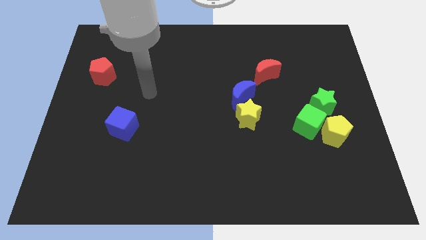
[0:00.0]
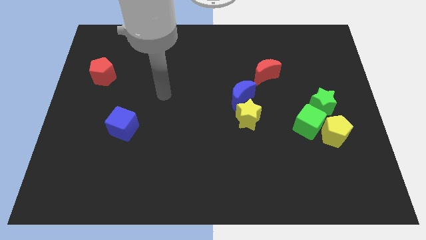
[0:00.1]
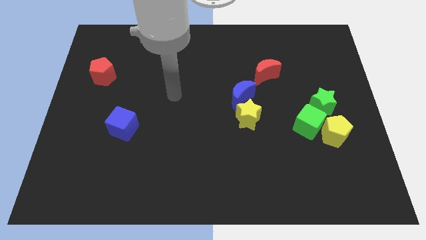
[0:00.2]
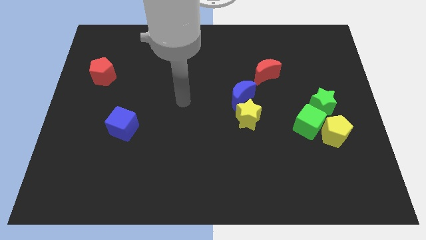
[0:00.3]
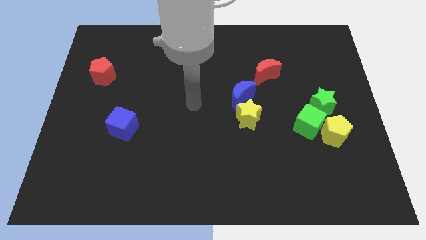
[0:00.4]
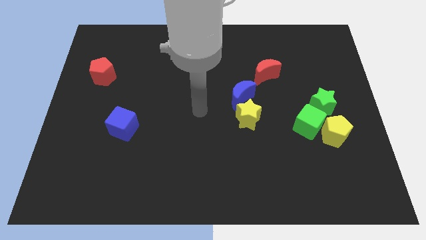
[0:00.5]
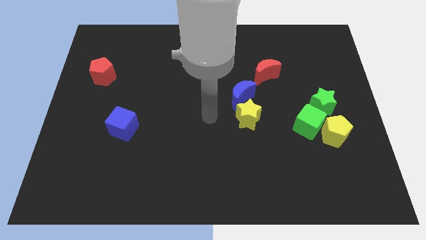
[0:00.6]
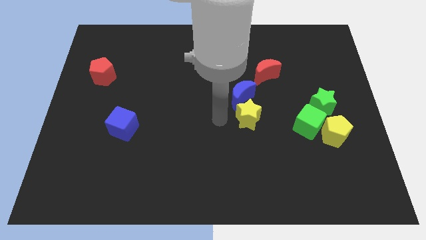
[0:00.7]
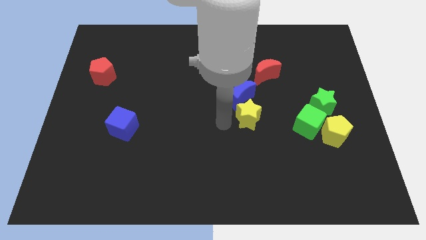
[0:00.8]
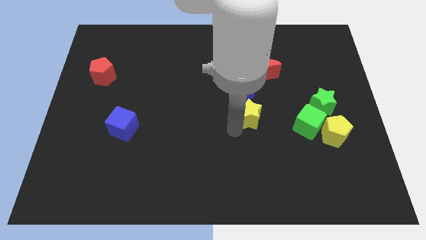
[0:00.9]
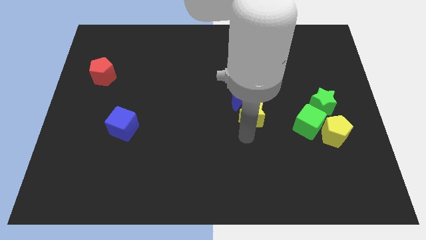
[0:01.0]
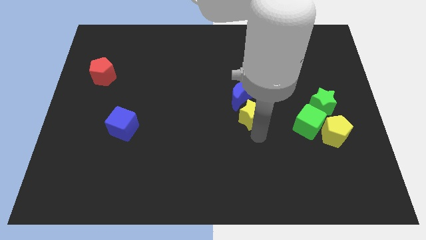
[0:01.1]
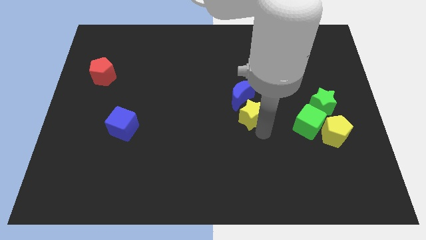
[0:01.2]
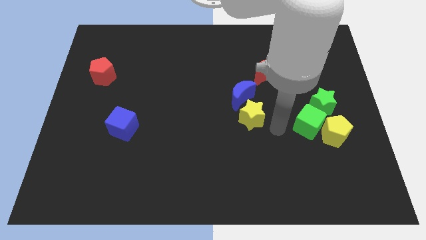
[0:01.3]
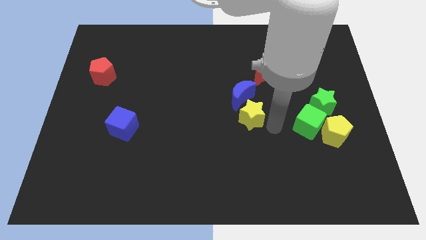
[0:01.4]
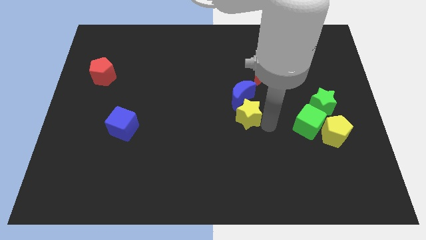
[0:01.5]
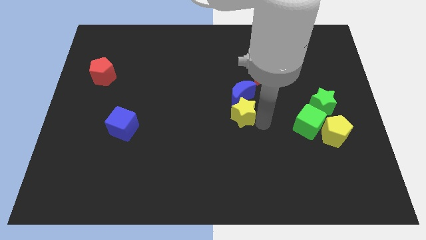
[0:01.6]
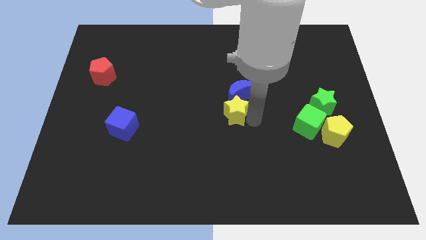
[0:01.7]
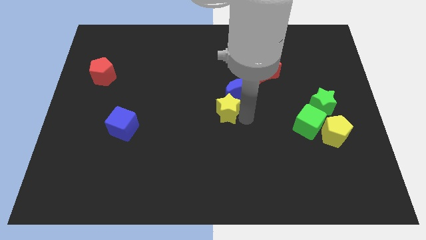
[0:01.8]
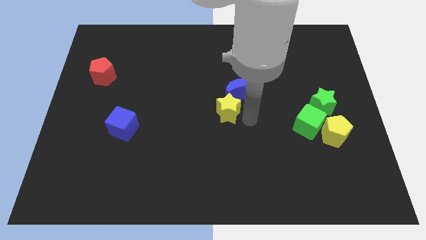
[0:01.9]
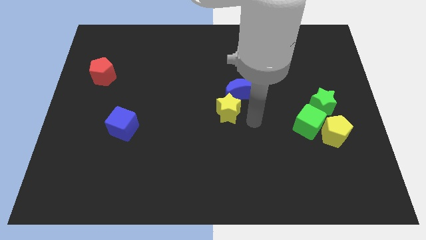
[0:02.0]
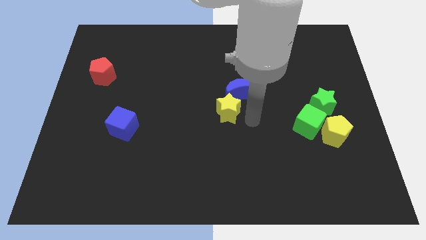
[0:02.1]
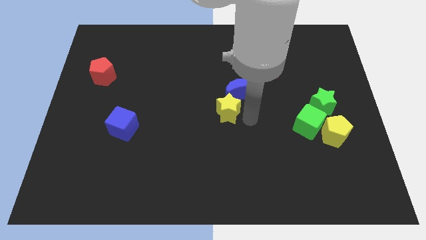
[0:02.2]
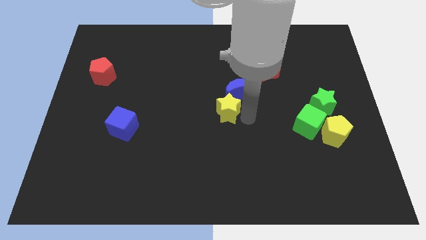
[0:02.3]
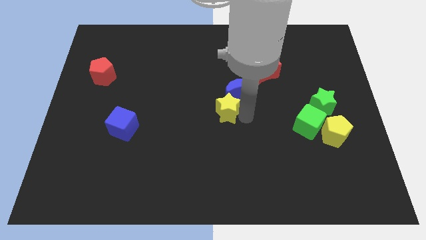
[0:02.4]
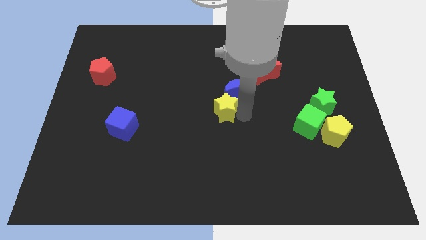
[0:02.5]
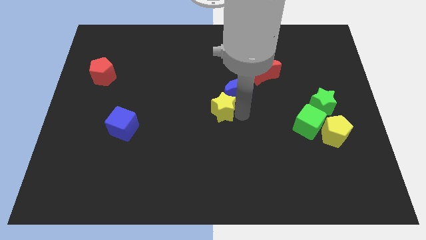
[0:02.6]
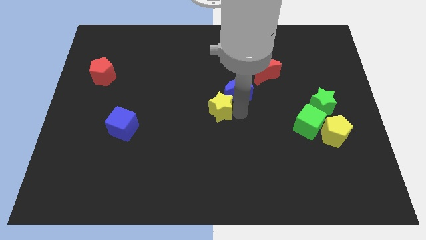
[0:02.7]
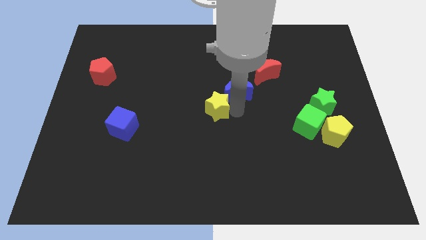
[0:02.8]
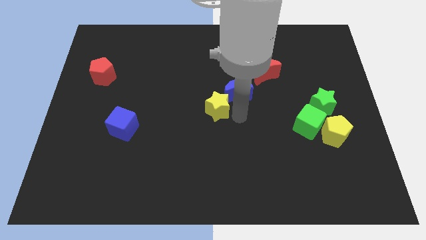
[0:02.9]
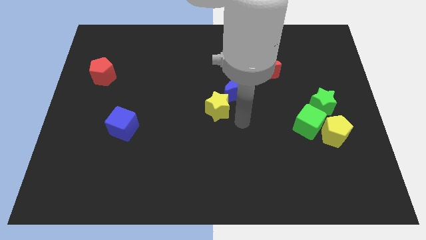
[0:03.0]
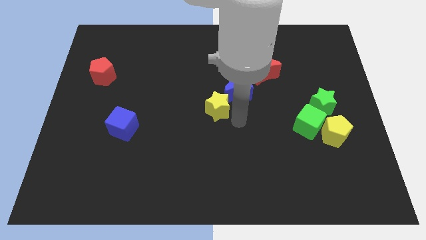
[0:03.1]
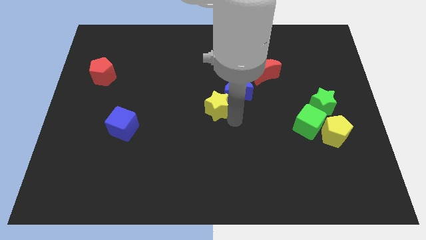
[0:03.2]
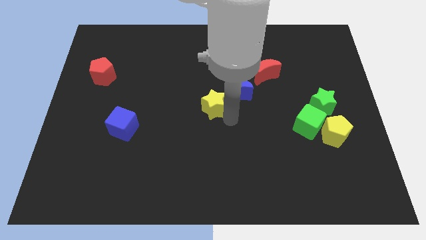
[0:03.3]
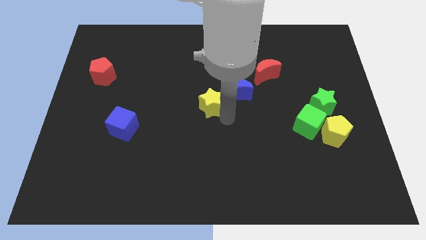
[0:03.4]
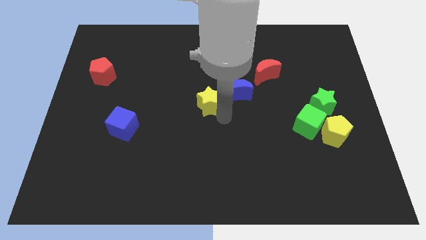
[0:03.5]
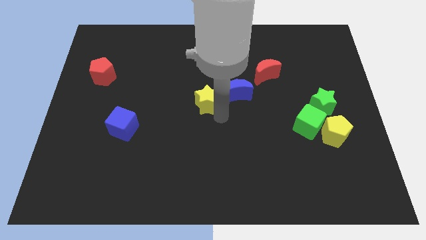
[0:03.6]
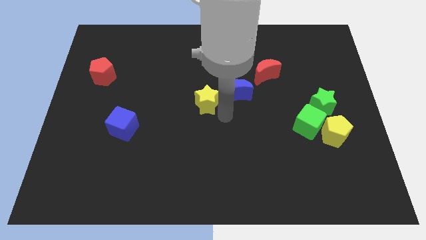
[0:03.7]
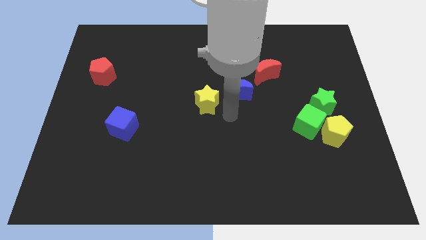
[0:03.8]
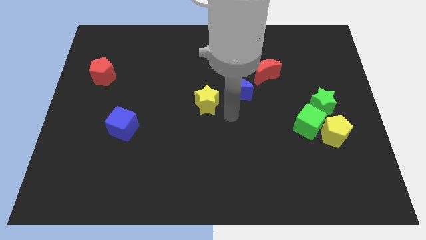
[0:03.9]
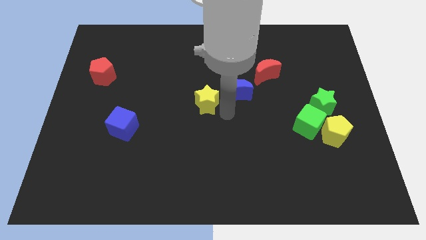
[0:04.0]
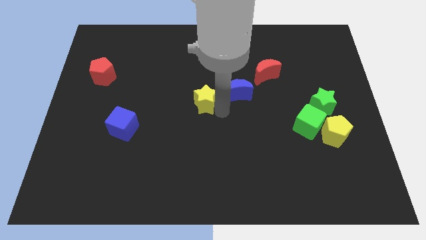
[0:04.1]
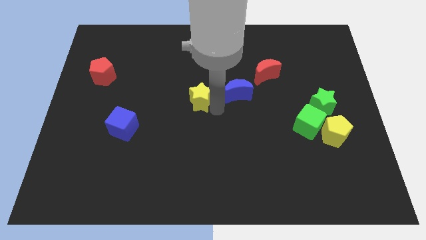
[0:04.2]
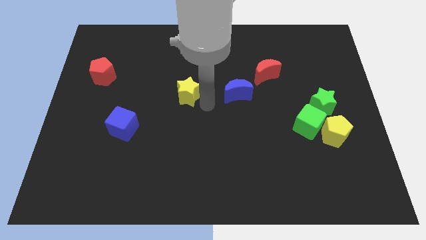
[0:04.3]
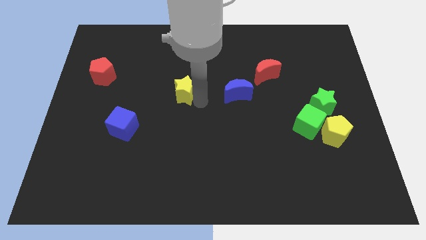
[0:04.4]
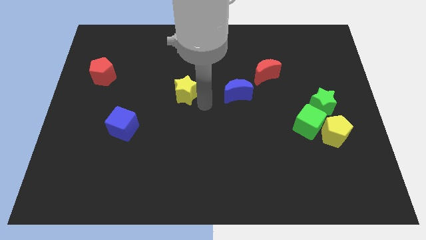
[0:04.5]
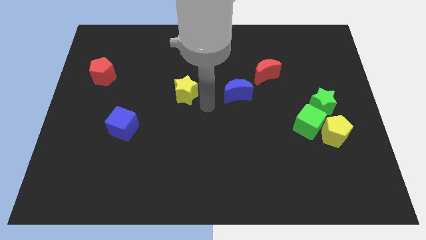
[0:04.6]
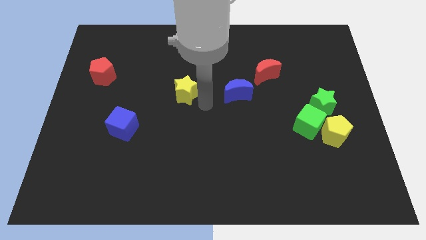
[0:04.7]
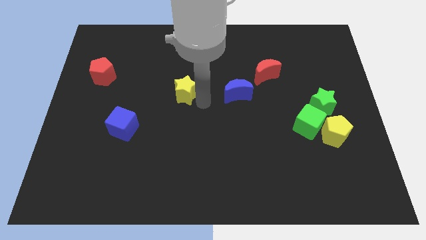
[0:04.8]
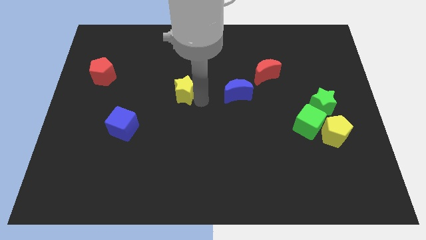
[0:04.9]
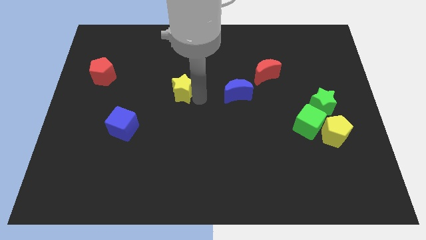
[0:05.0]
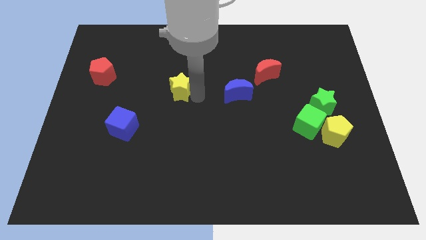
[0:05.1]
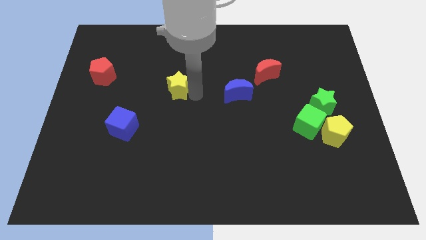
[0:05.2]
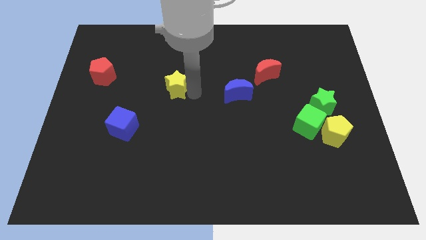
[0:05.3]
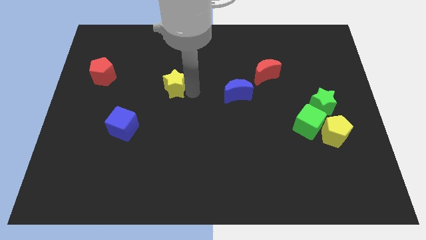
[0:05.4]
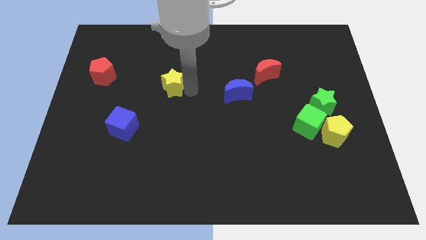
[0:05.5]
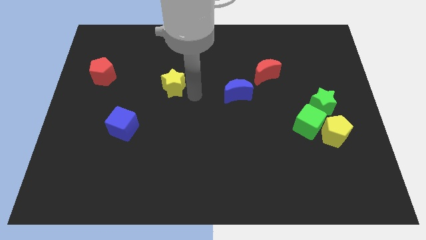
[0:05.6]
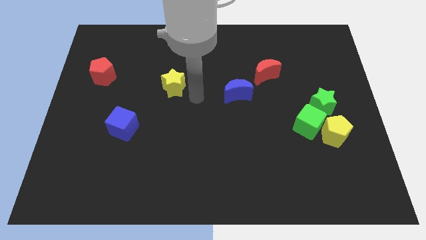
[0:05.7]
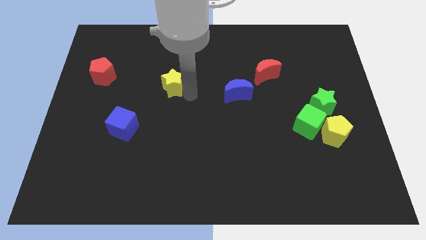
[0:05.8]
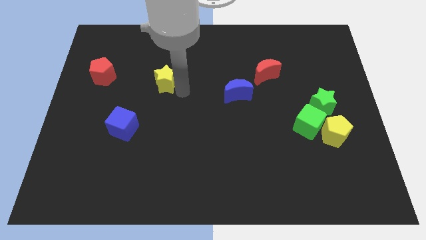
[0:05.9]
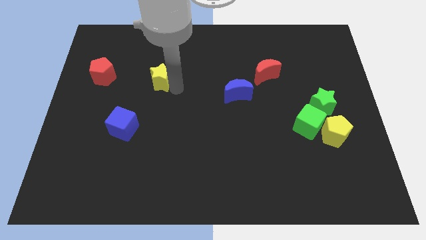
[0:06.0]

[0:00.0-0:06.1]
put the yellow star to the right side of the red pentagon

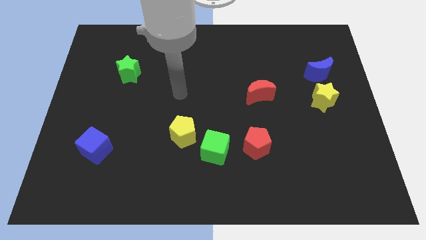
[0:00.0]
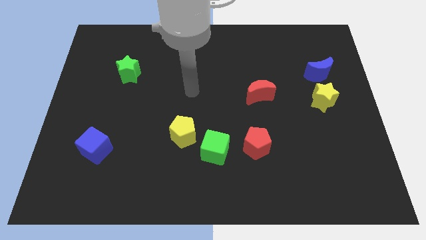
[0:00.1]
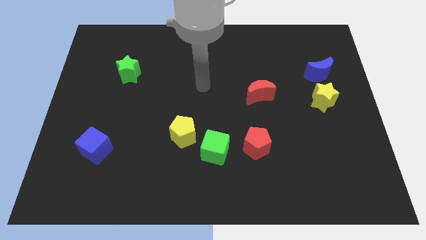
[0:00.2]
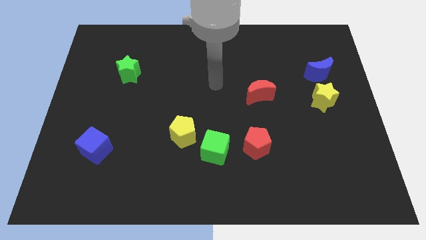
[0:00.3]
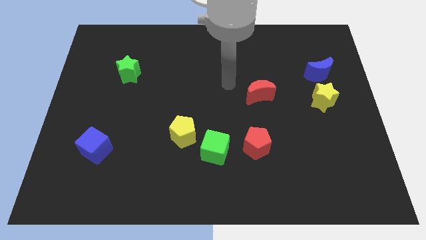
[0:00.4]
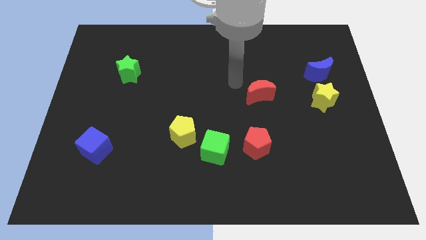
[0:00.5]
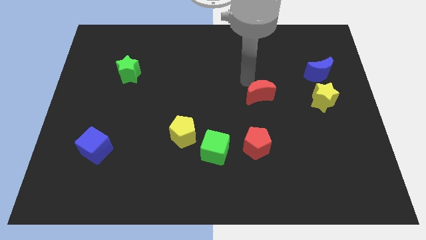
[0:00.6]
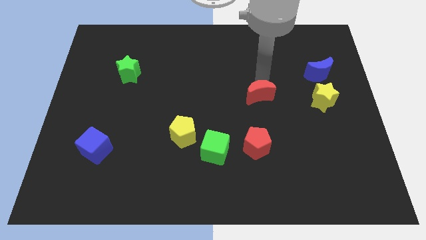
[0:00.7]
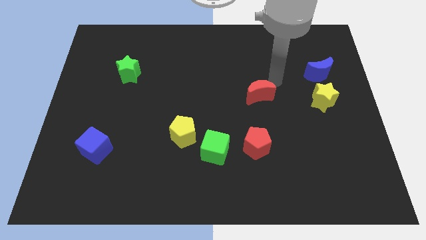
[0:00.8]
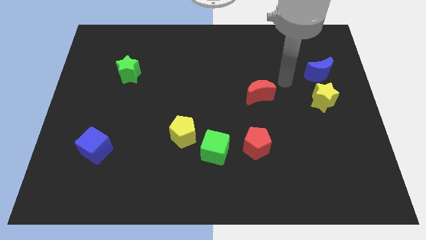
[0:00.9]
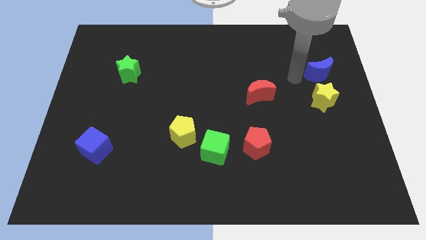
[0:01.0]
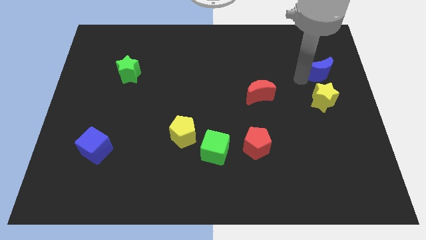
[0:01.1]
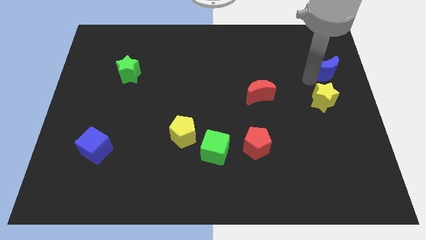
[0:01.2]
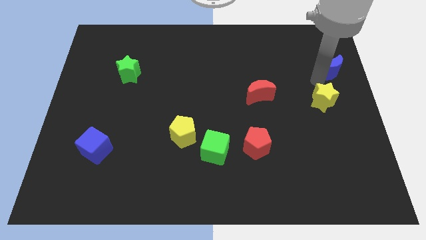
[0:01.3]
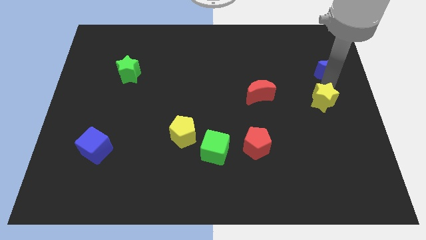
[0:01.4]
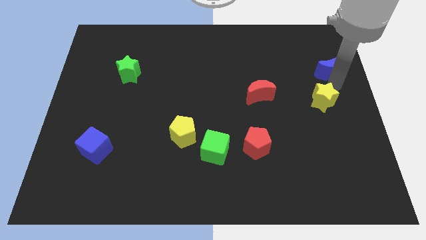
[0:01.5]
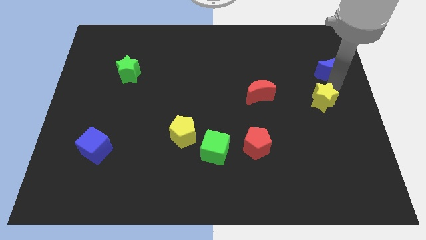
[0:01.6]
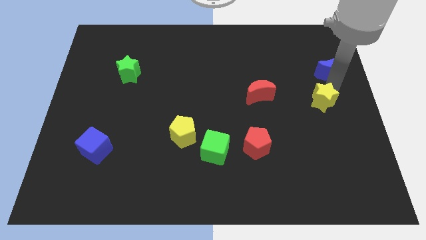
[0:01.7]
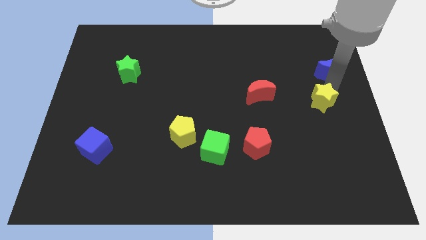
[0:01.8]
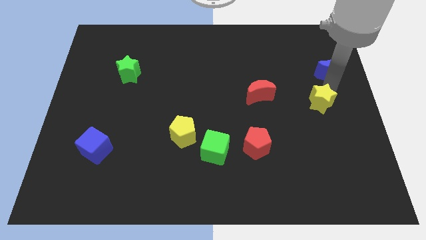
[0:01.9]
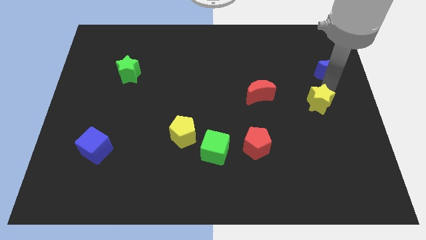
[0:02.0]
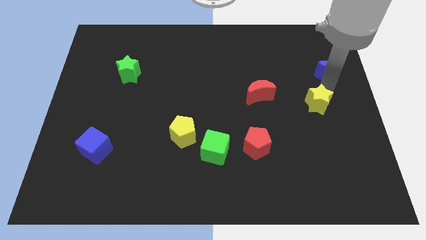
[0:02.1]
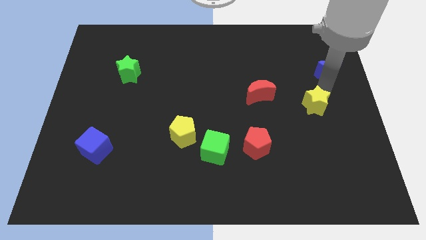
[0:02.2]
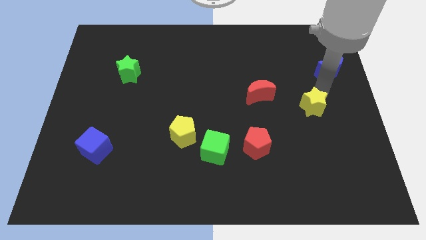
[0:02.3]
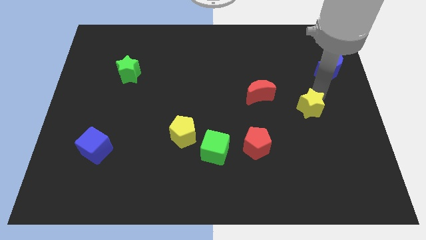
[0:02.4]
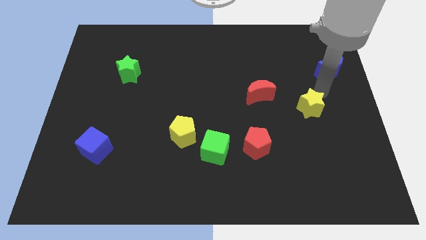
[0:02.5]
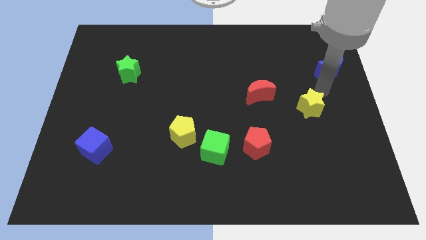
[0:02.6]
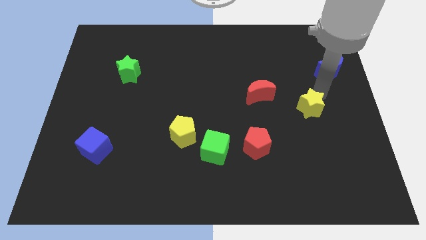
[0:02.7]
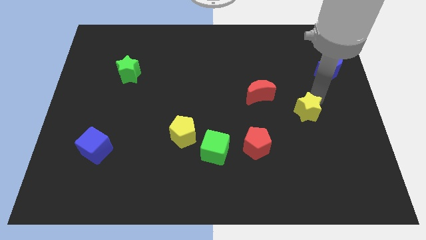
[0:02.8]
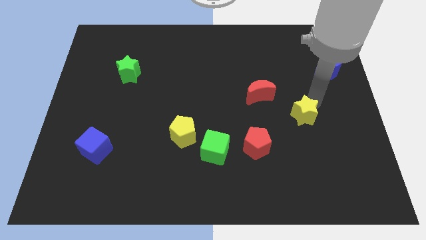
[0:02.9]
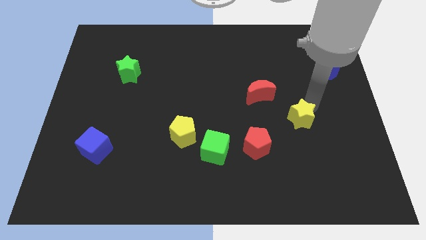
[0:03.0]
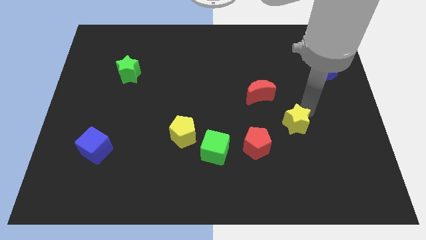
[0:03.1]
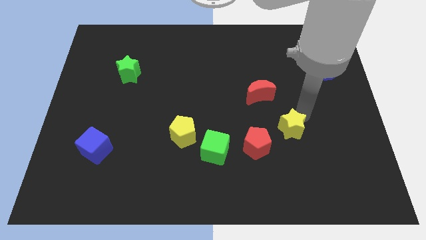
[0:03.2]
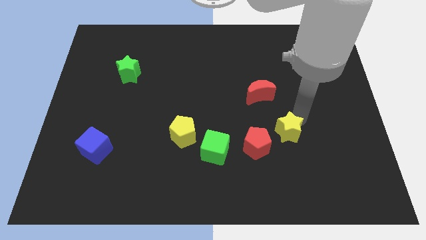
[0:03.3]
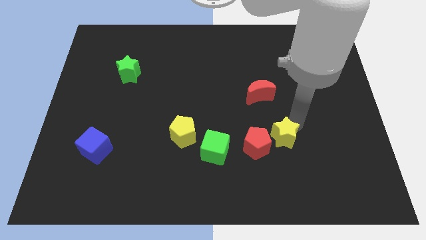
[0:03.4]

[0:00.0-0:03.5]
slide the yellow star right of the green cube
